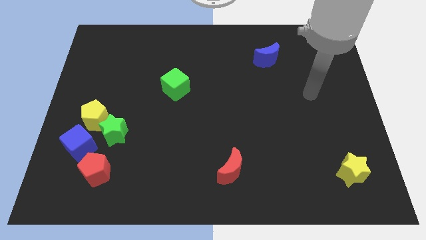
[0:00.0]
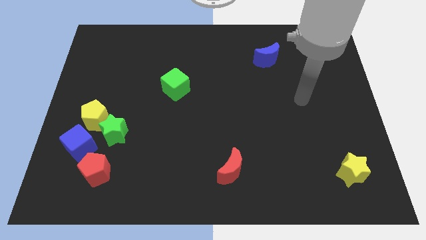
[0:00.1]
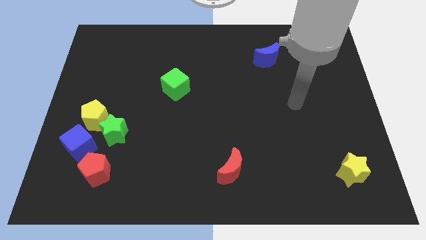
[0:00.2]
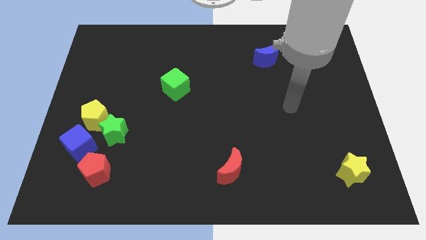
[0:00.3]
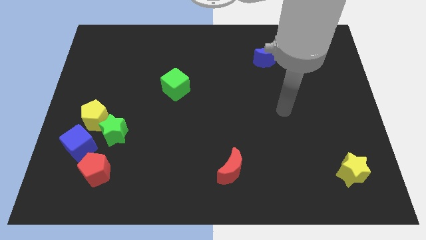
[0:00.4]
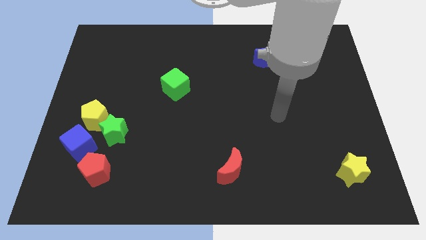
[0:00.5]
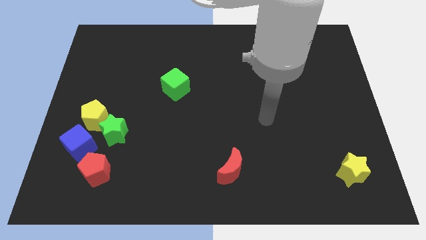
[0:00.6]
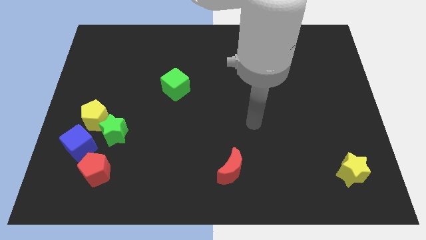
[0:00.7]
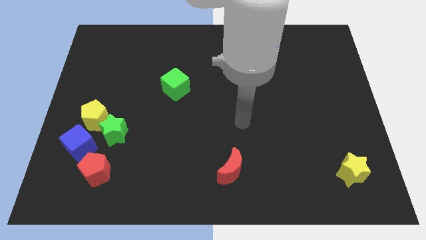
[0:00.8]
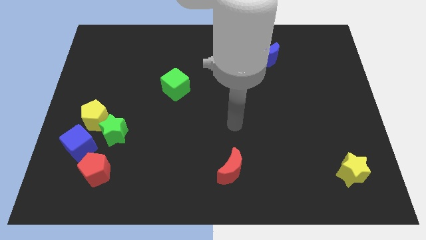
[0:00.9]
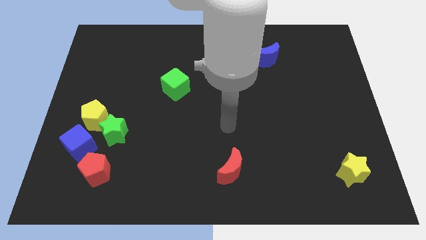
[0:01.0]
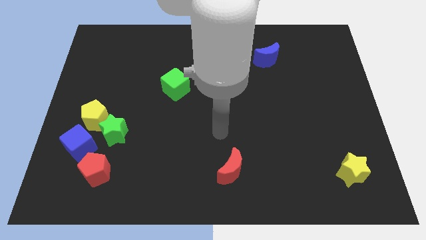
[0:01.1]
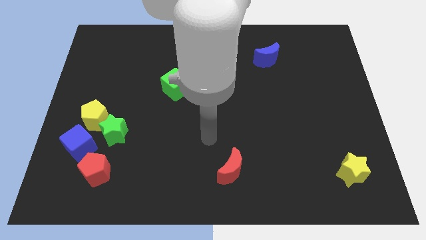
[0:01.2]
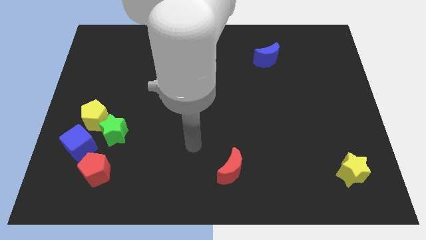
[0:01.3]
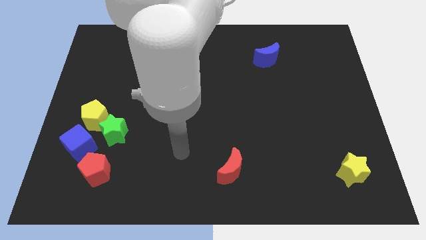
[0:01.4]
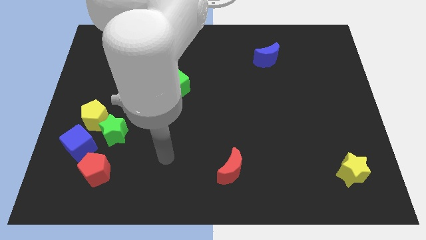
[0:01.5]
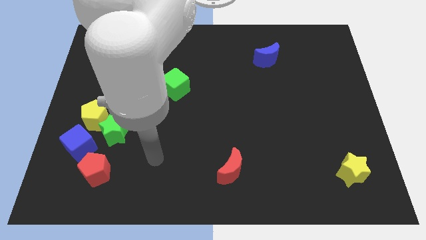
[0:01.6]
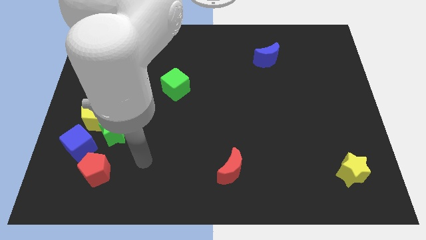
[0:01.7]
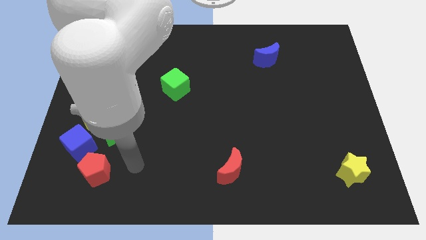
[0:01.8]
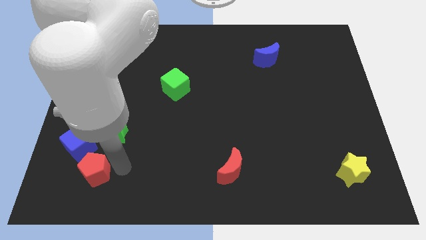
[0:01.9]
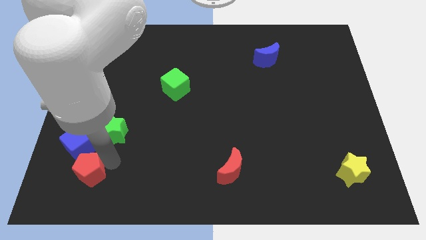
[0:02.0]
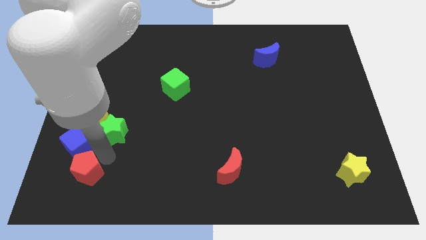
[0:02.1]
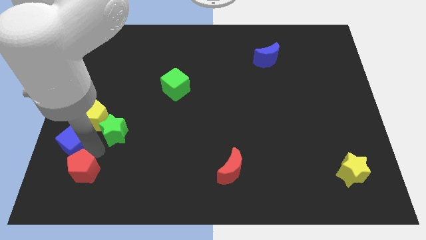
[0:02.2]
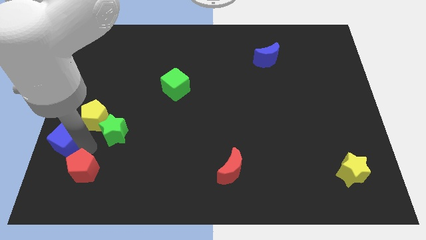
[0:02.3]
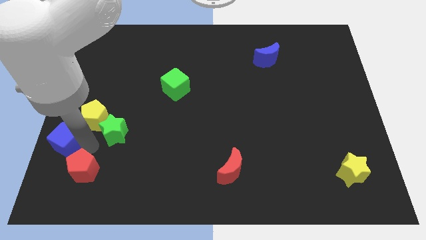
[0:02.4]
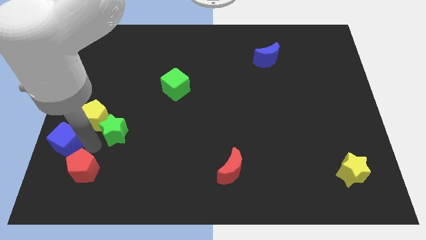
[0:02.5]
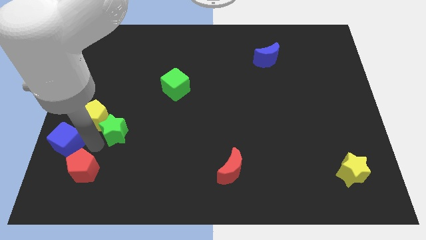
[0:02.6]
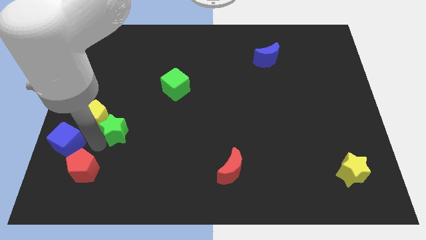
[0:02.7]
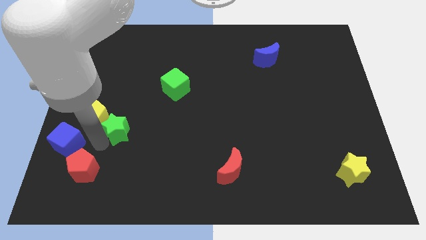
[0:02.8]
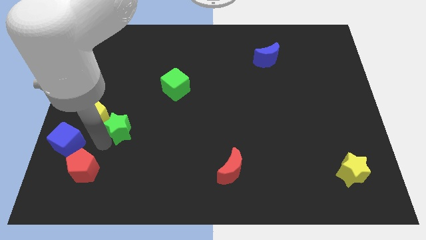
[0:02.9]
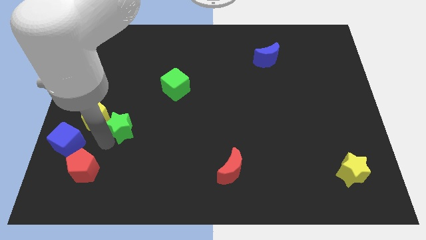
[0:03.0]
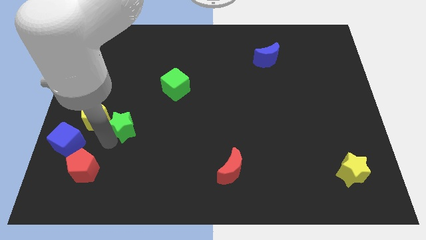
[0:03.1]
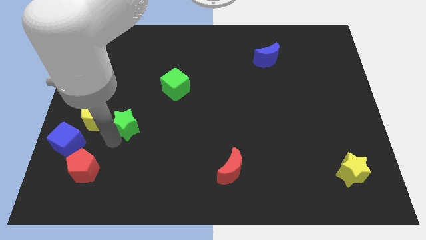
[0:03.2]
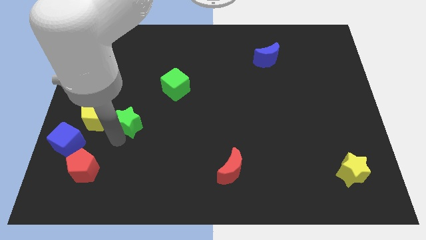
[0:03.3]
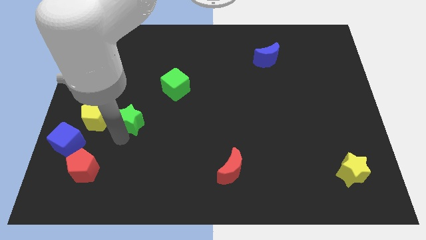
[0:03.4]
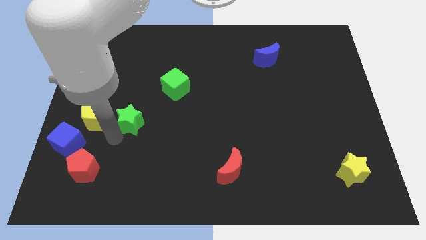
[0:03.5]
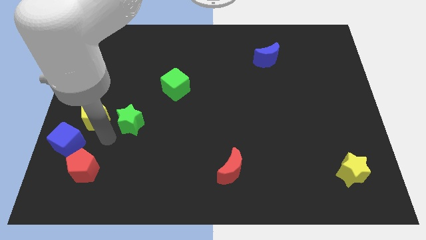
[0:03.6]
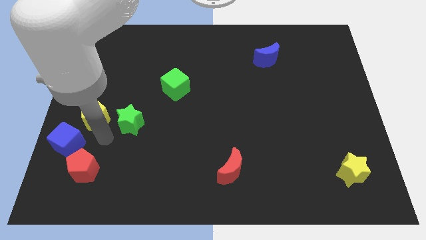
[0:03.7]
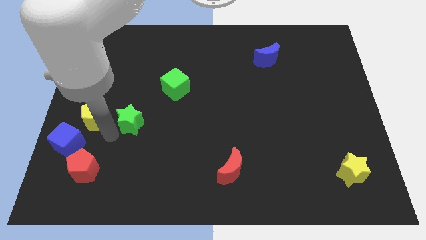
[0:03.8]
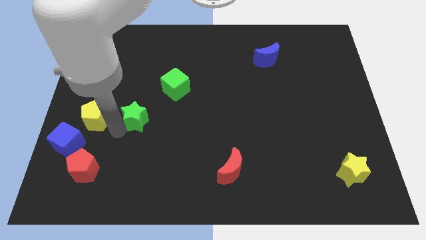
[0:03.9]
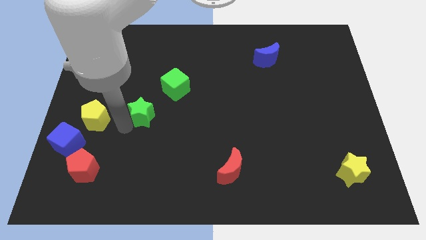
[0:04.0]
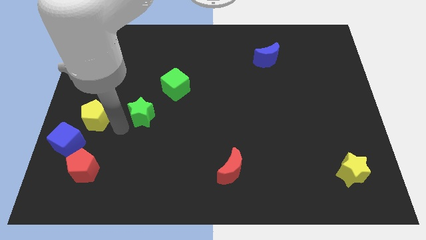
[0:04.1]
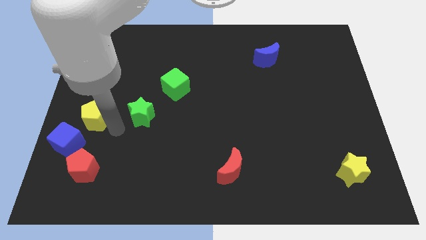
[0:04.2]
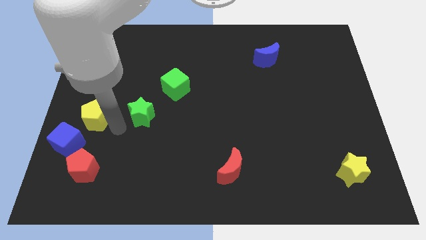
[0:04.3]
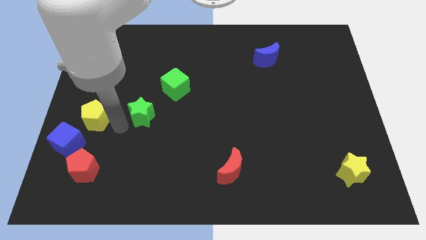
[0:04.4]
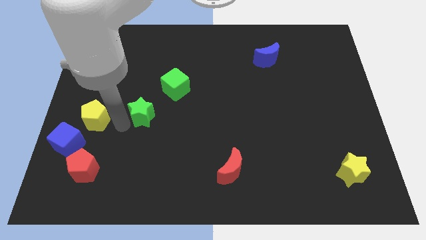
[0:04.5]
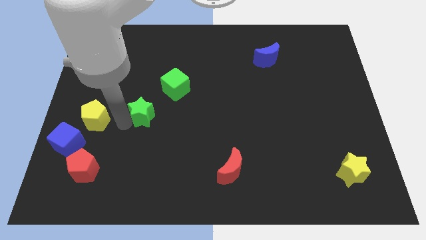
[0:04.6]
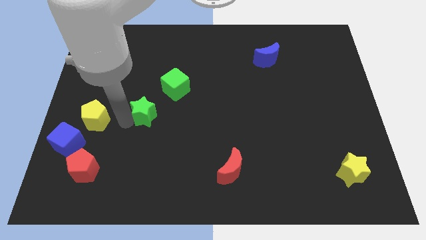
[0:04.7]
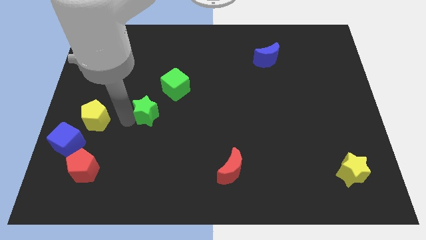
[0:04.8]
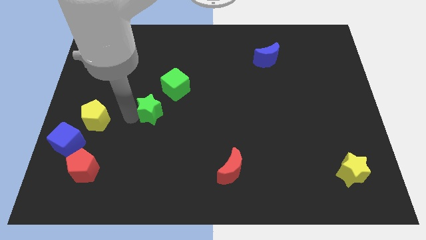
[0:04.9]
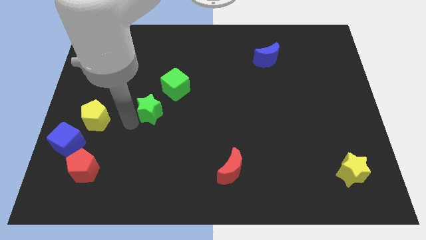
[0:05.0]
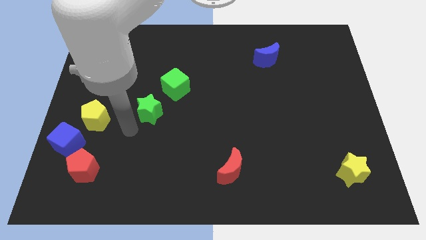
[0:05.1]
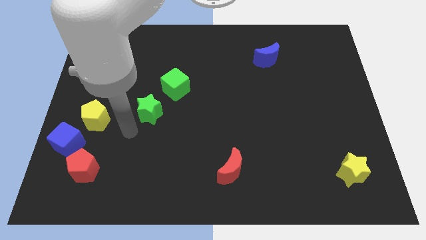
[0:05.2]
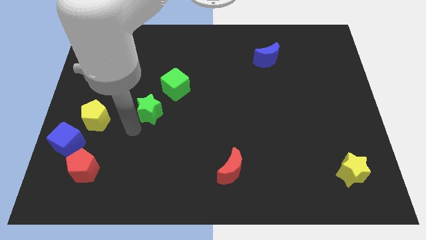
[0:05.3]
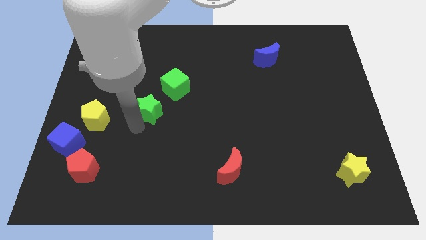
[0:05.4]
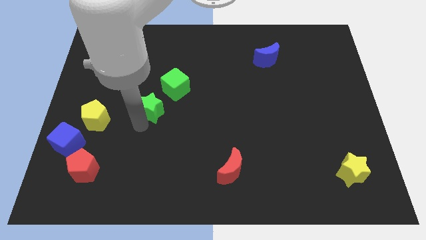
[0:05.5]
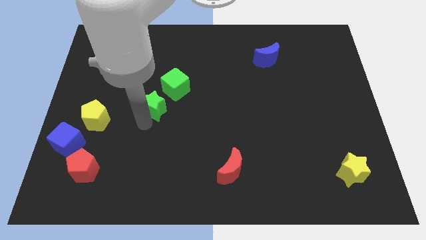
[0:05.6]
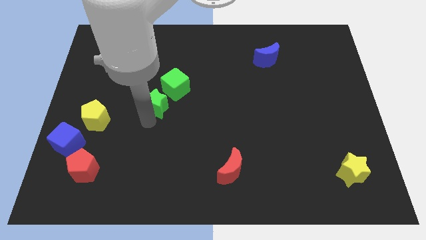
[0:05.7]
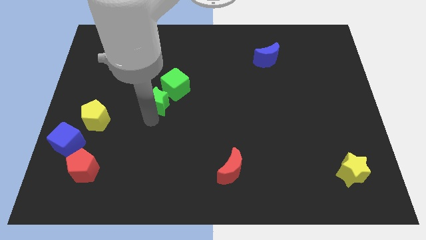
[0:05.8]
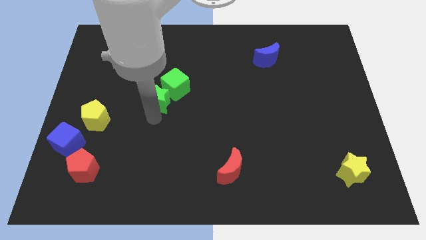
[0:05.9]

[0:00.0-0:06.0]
put the green star next to the green cube

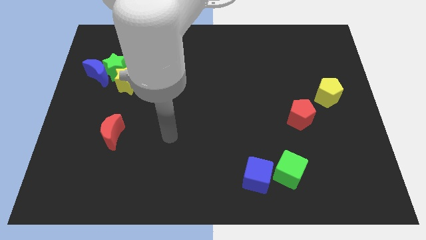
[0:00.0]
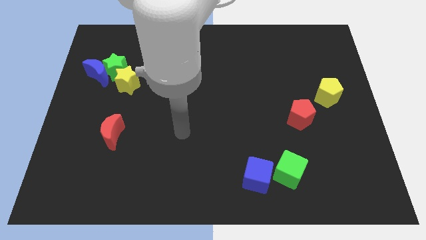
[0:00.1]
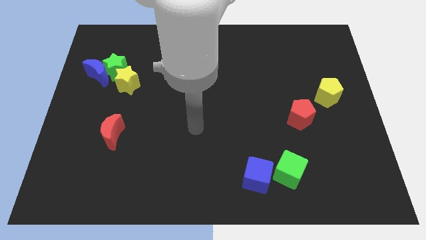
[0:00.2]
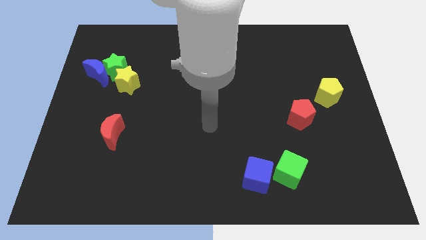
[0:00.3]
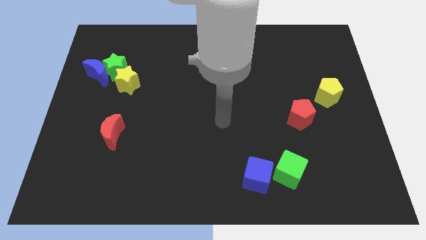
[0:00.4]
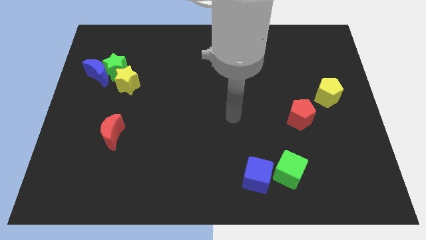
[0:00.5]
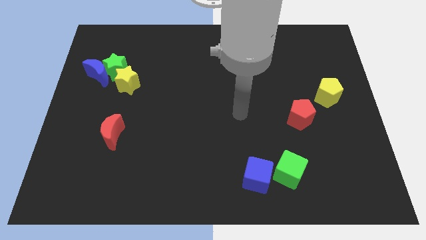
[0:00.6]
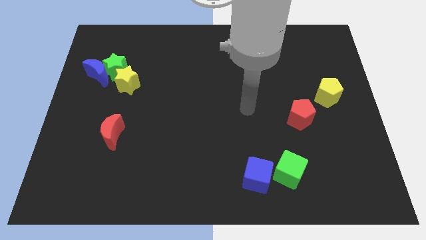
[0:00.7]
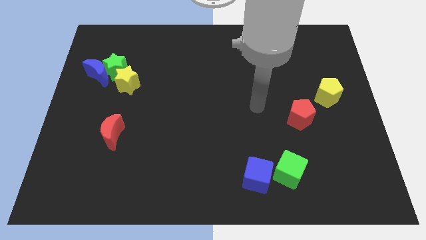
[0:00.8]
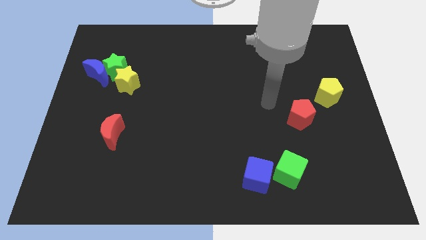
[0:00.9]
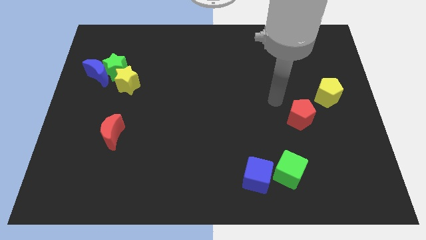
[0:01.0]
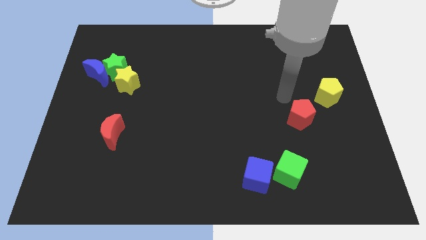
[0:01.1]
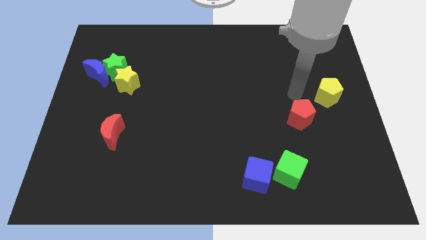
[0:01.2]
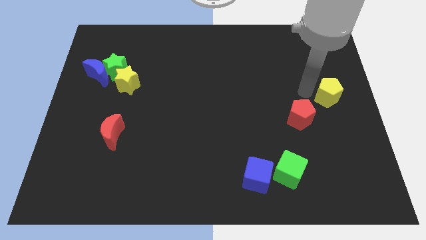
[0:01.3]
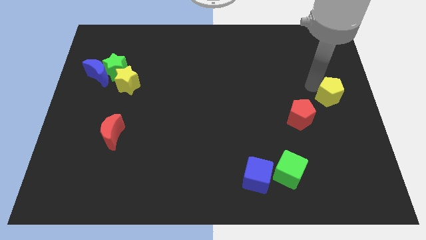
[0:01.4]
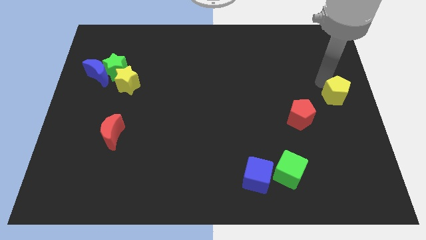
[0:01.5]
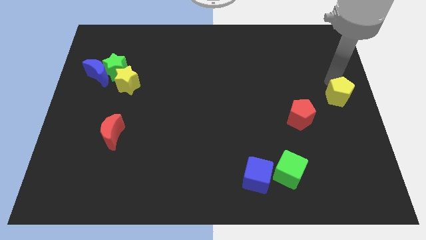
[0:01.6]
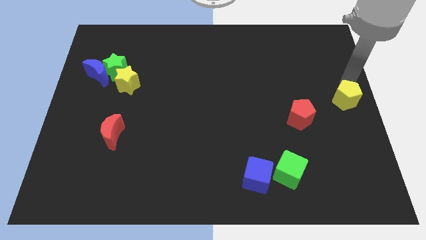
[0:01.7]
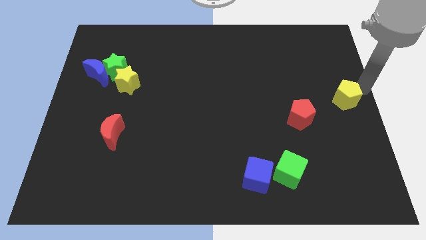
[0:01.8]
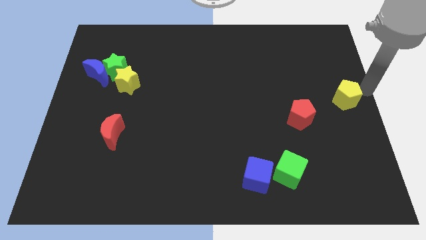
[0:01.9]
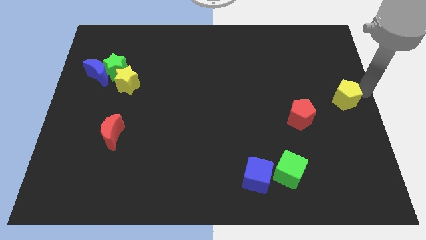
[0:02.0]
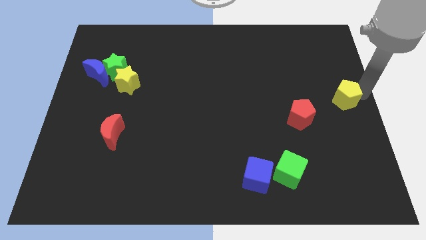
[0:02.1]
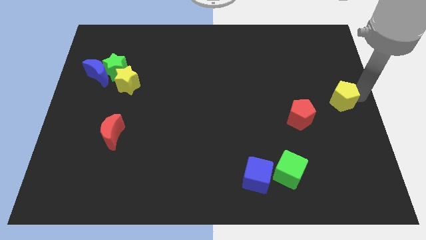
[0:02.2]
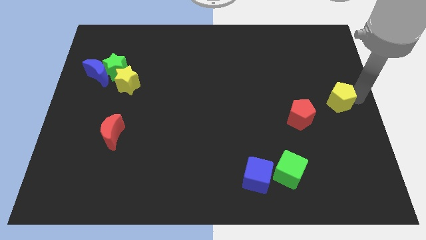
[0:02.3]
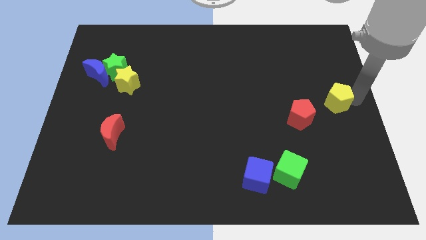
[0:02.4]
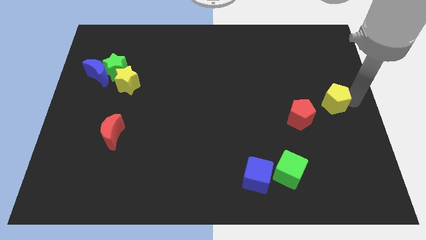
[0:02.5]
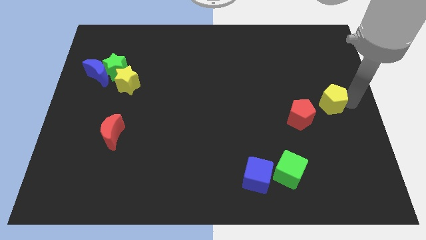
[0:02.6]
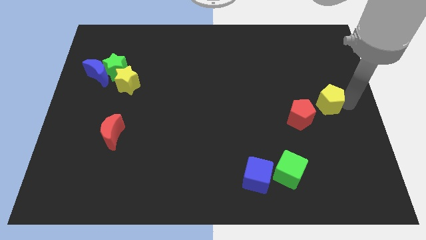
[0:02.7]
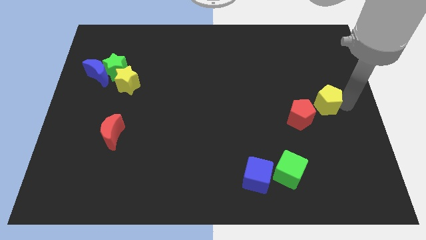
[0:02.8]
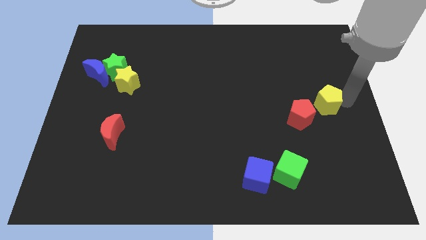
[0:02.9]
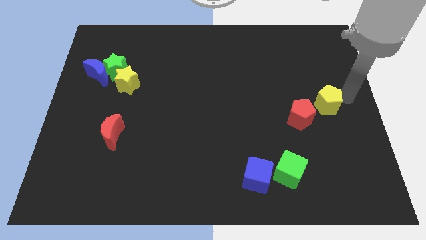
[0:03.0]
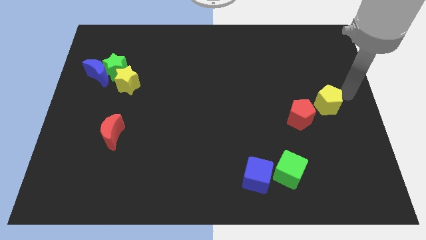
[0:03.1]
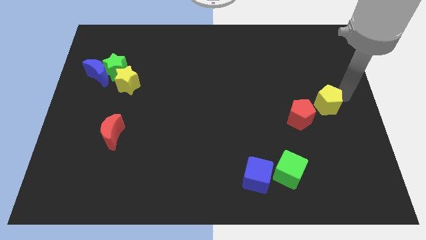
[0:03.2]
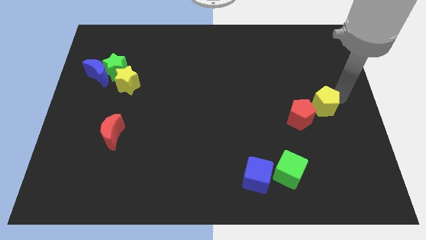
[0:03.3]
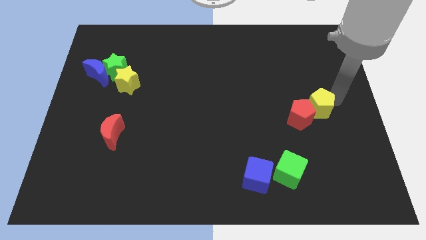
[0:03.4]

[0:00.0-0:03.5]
move the yellow pentagon to the red pentagon
